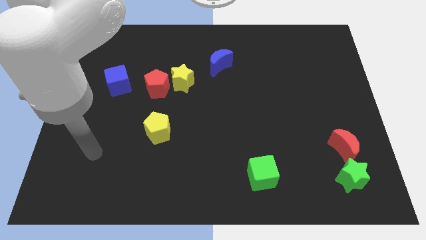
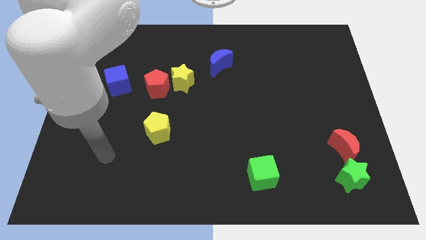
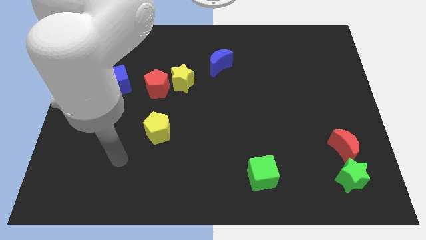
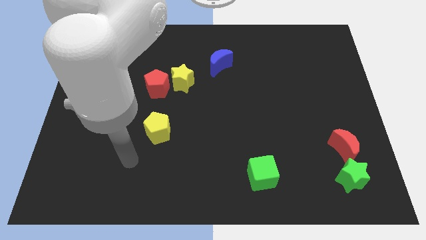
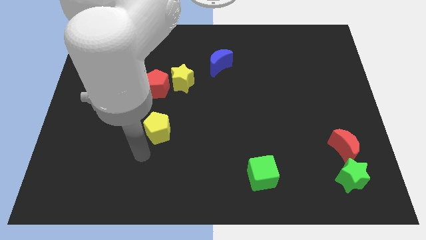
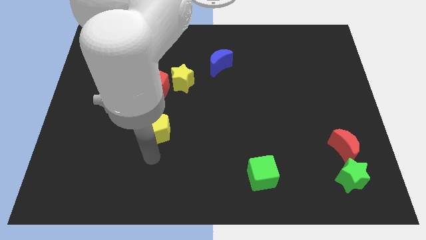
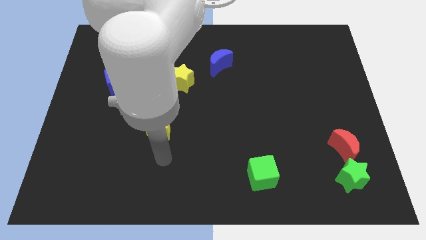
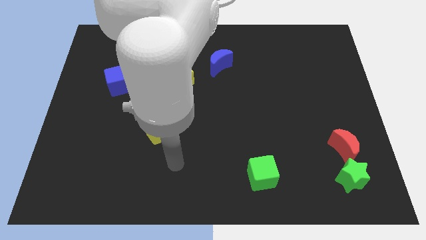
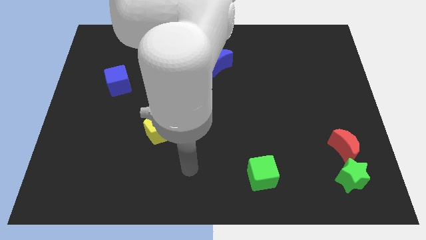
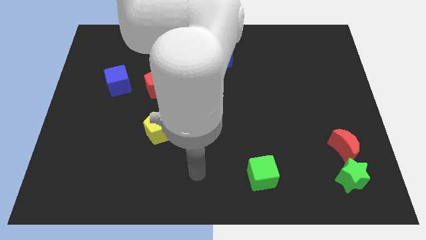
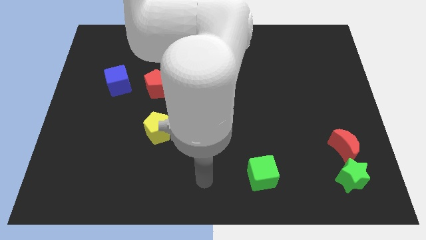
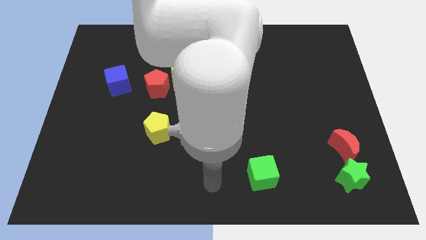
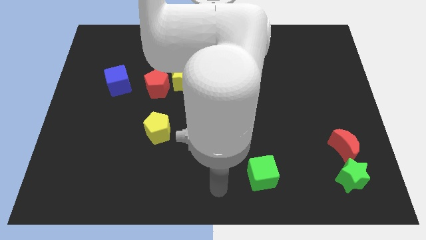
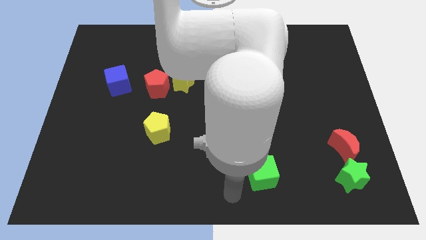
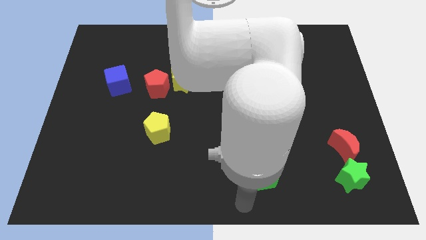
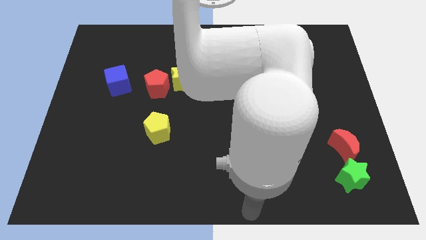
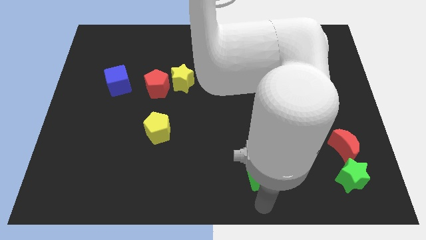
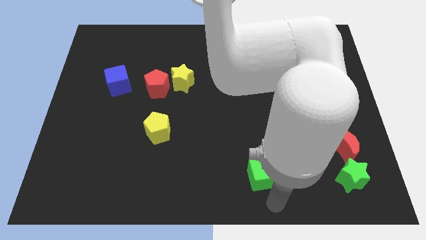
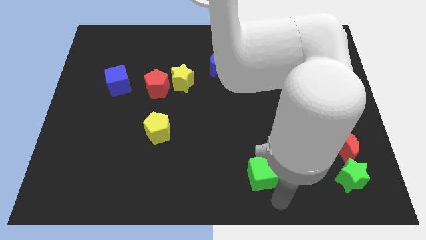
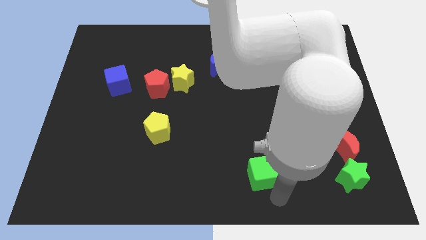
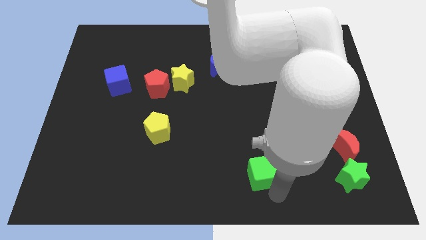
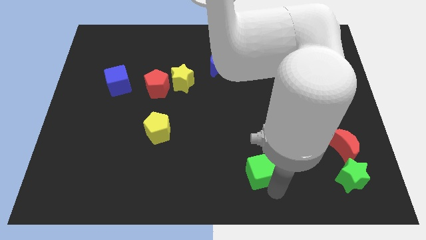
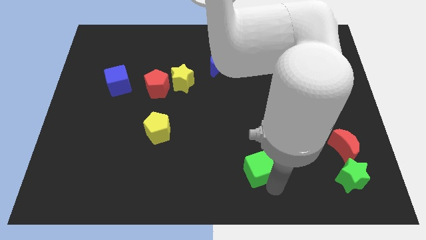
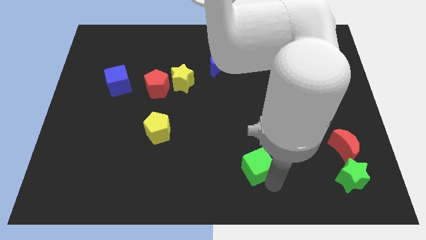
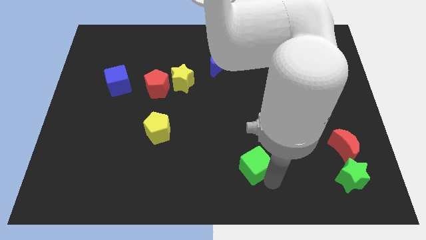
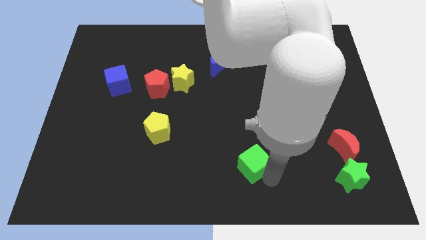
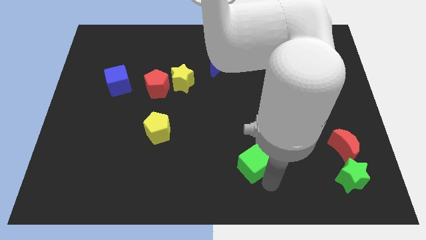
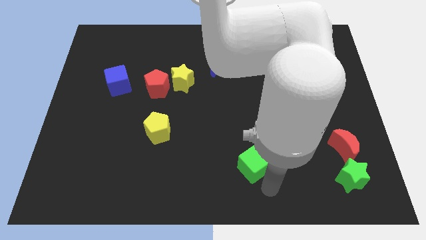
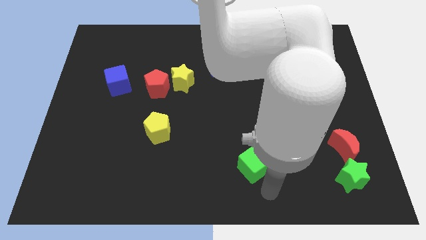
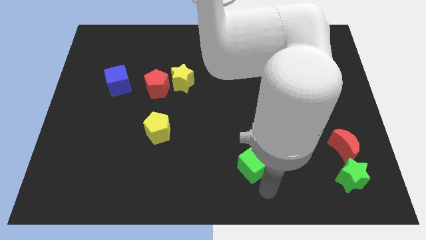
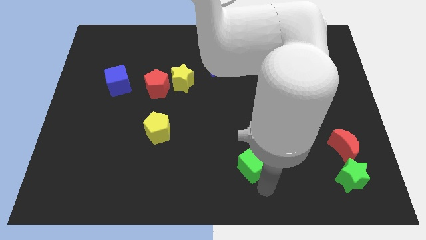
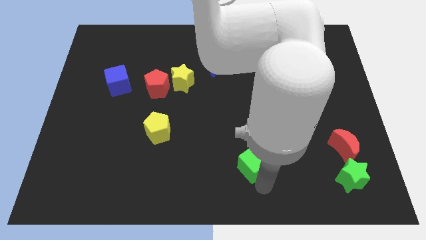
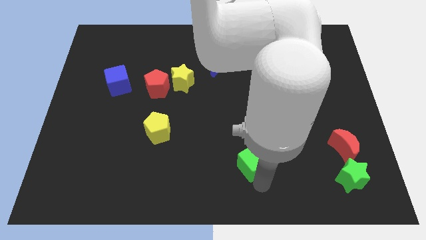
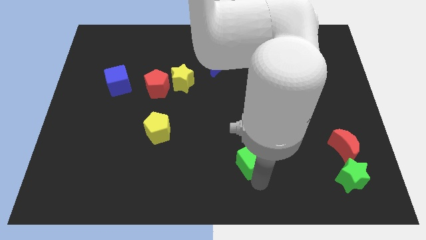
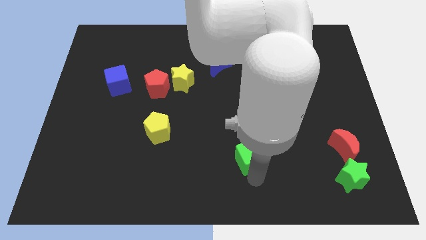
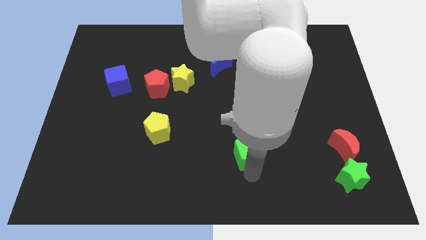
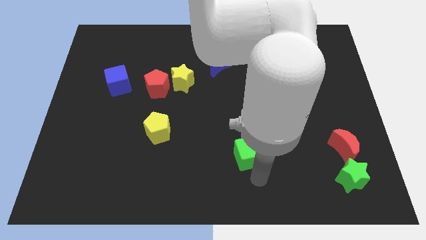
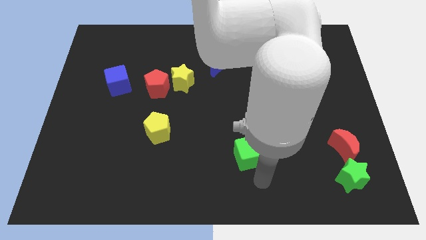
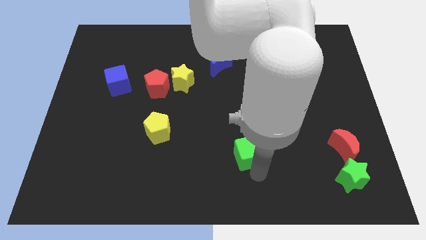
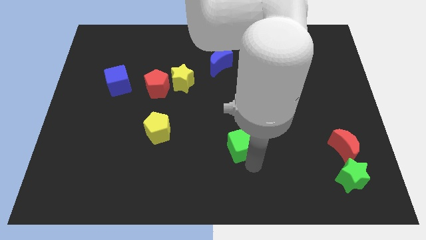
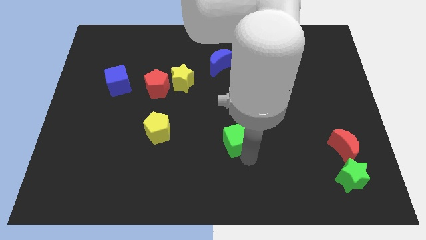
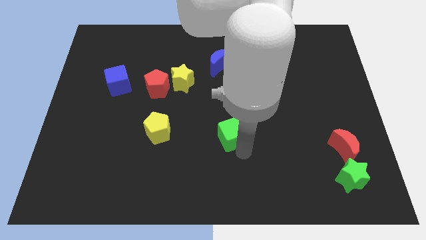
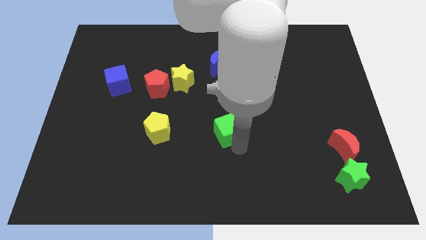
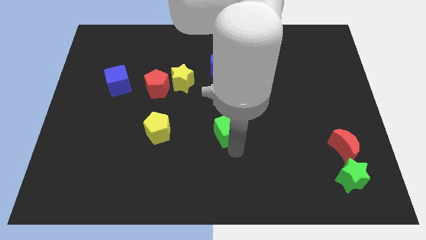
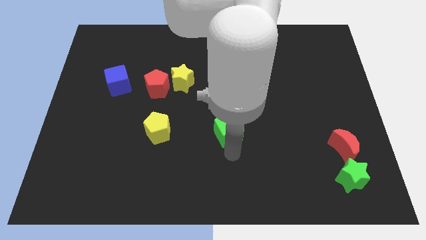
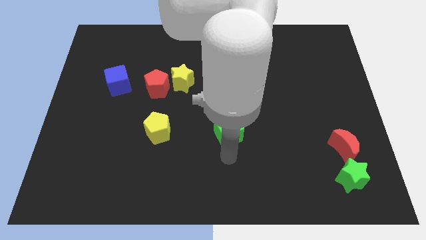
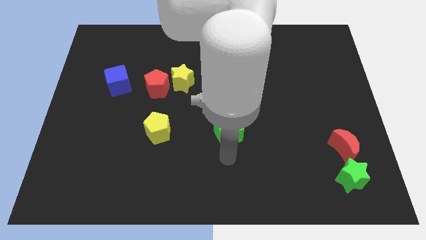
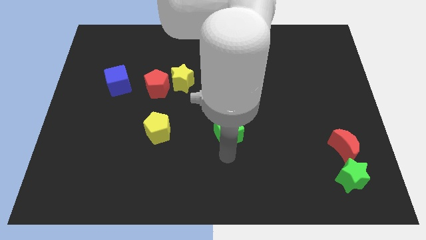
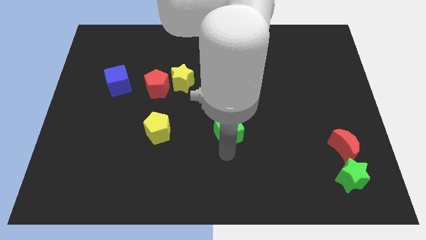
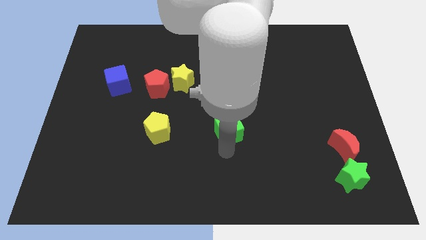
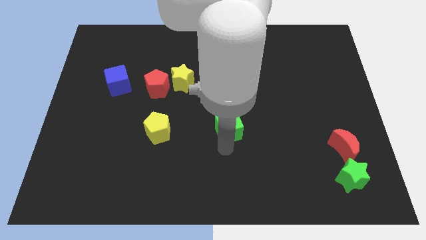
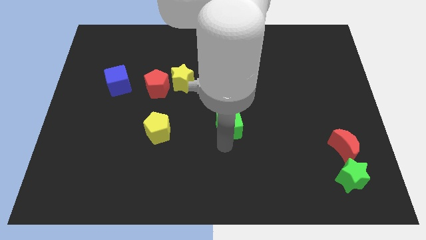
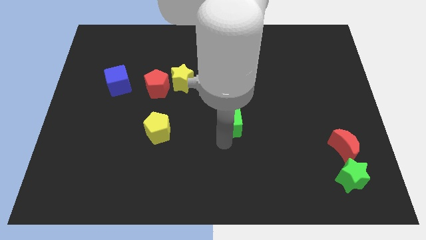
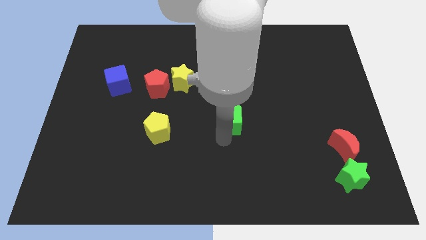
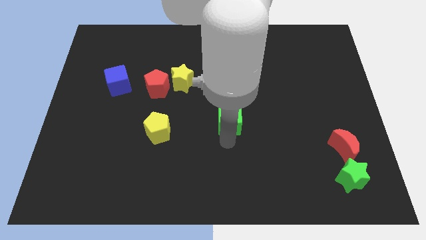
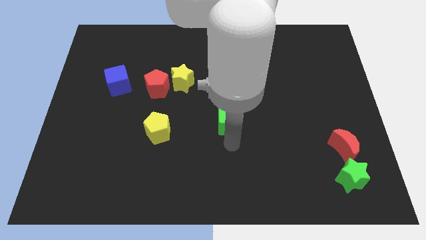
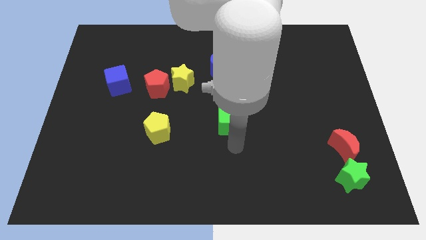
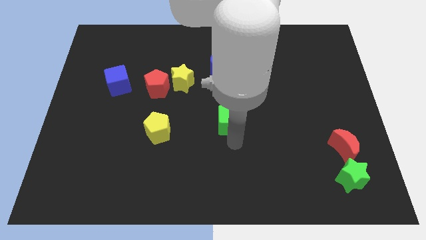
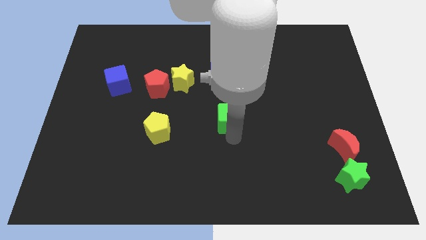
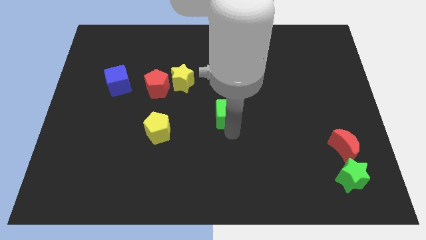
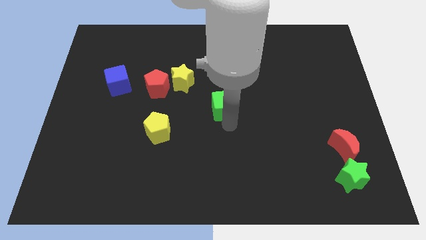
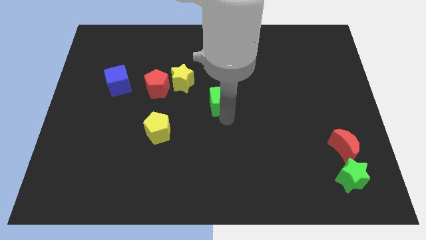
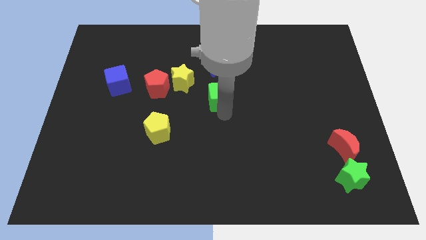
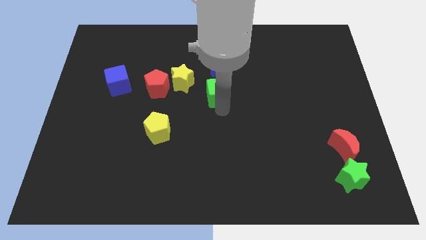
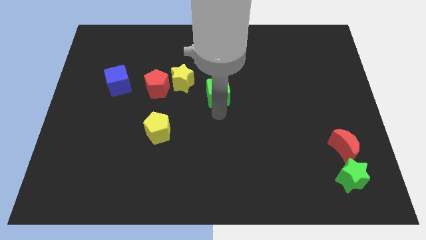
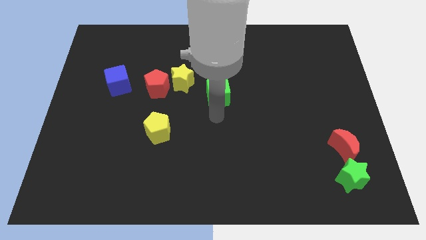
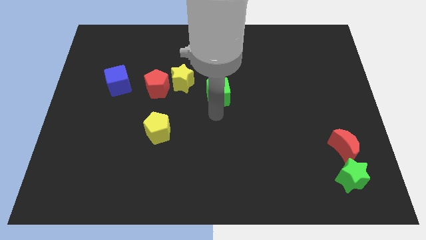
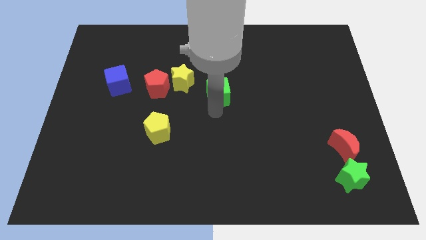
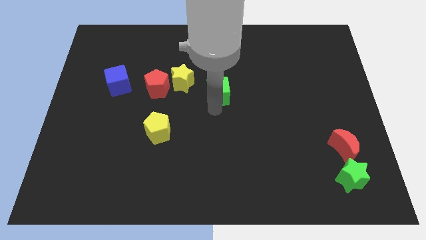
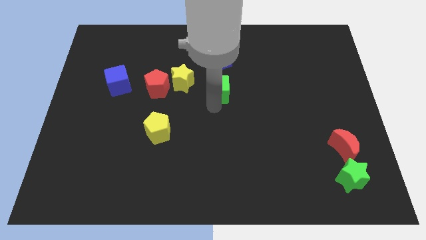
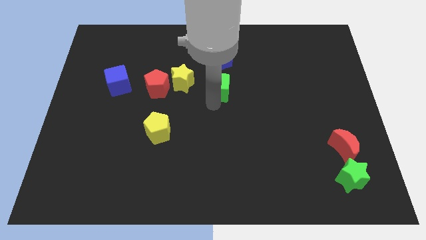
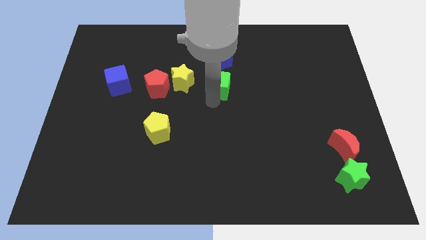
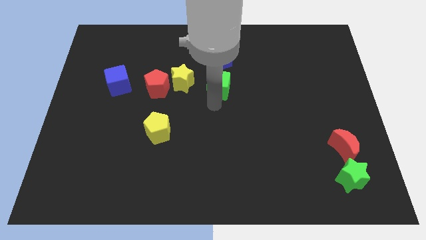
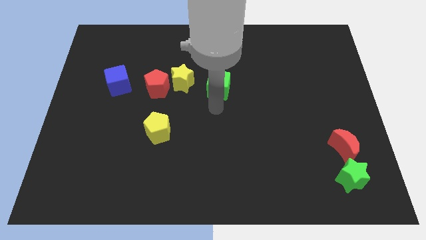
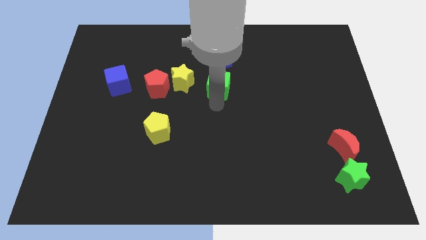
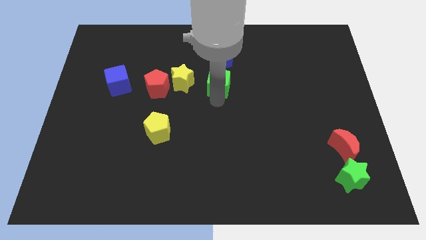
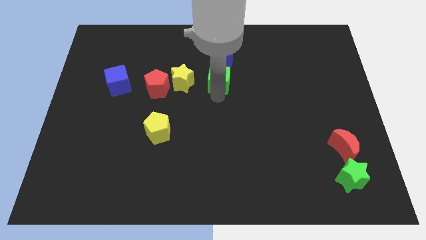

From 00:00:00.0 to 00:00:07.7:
push the green cube close to the blue moon
